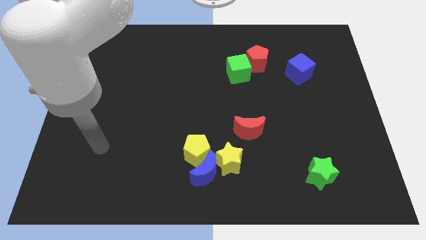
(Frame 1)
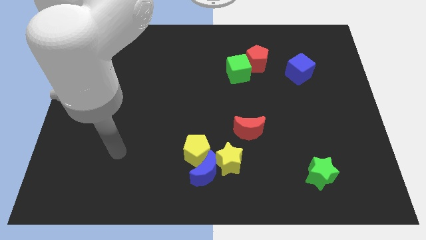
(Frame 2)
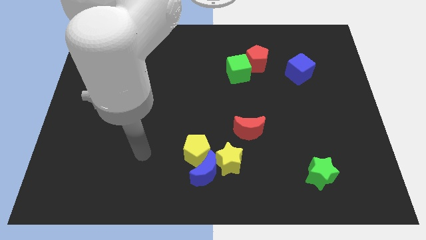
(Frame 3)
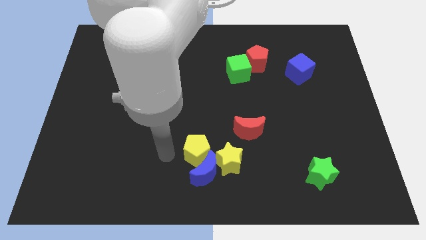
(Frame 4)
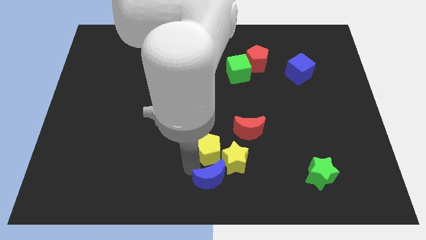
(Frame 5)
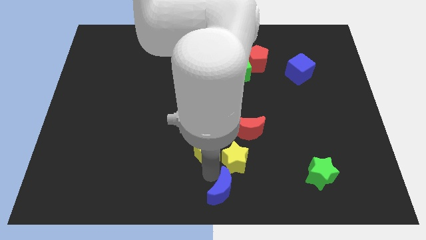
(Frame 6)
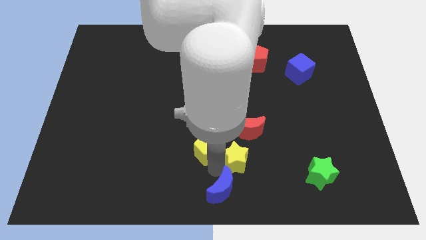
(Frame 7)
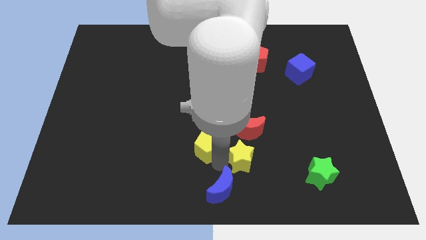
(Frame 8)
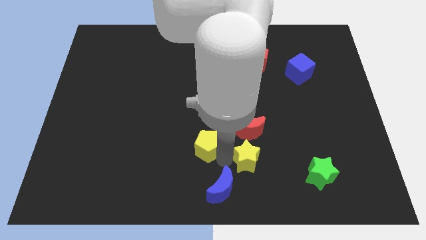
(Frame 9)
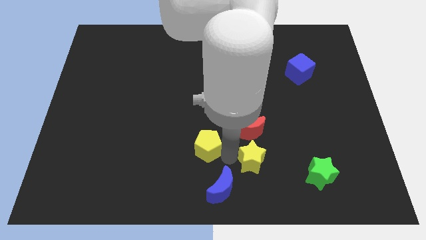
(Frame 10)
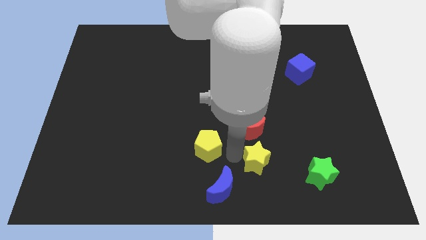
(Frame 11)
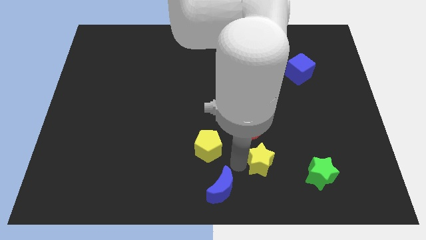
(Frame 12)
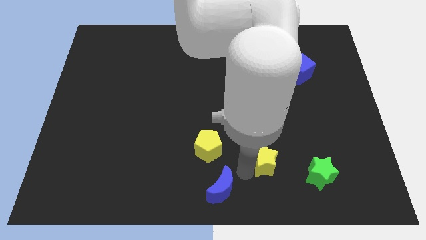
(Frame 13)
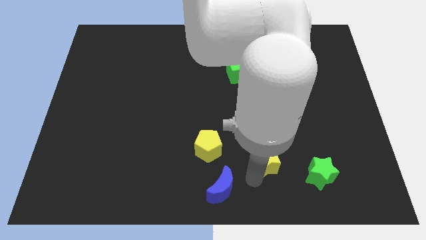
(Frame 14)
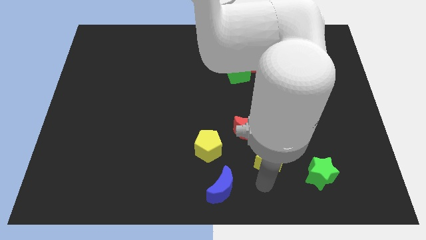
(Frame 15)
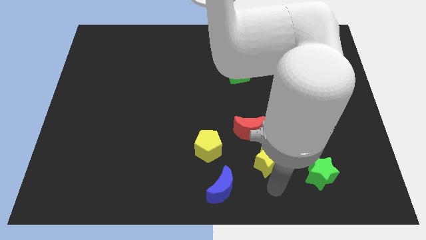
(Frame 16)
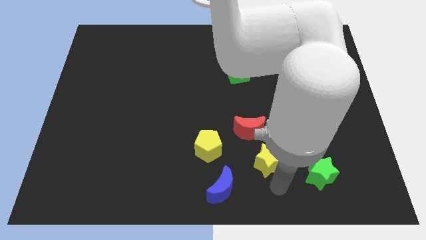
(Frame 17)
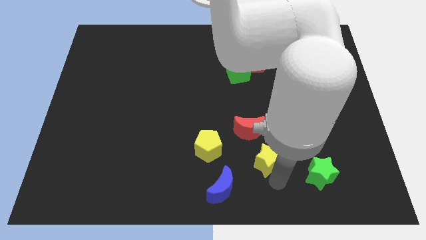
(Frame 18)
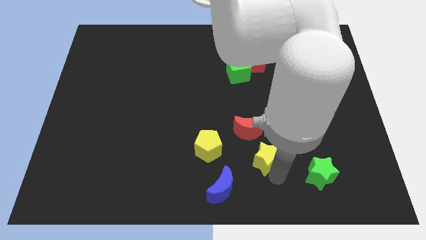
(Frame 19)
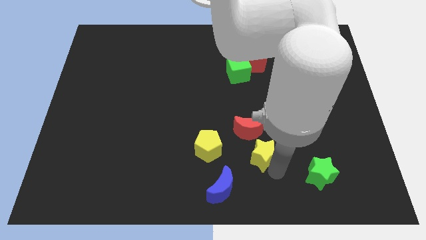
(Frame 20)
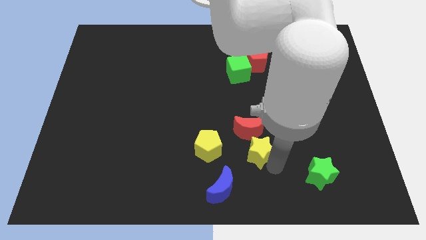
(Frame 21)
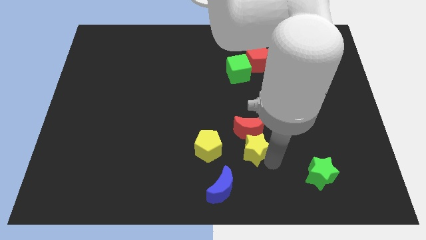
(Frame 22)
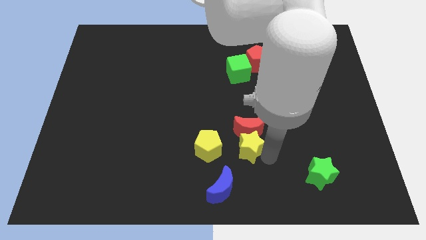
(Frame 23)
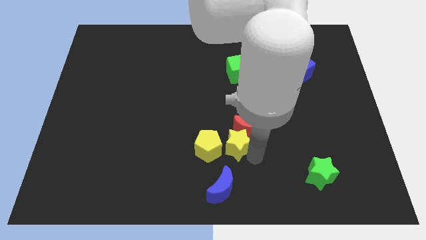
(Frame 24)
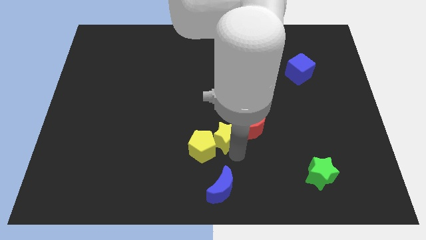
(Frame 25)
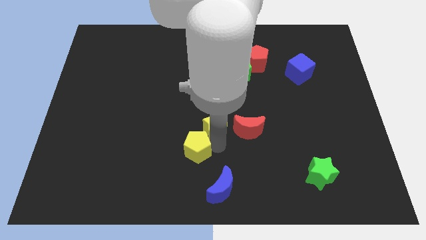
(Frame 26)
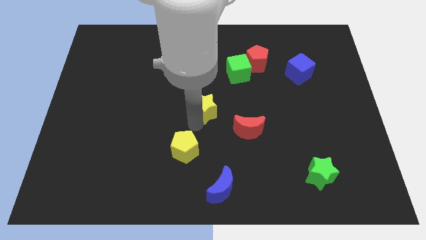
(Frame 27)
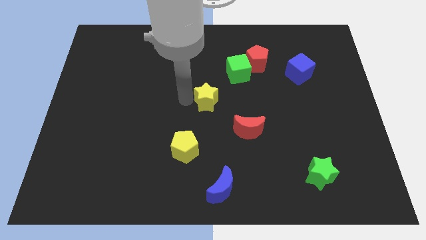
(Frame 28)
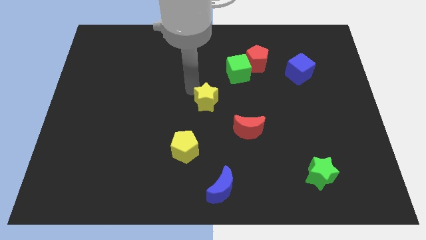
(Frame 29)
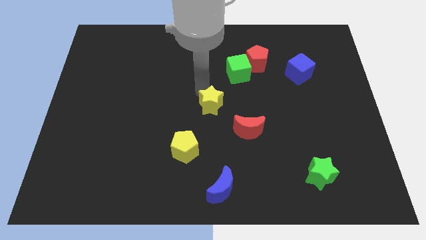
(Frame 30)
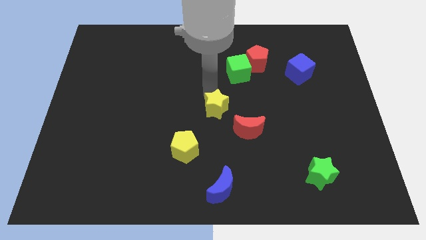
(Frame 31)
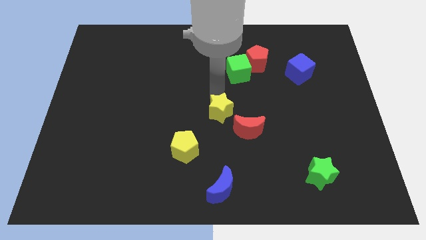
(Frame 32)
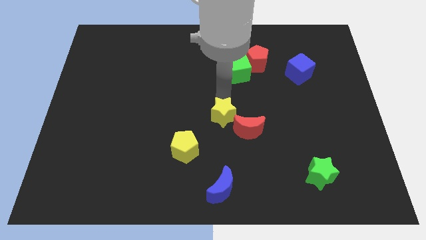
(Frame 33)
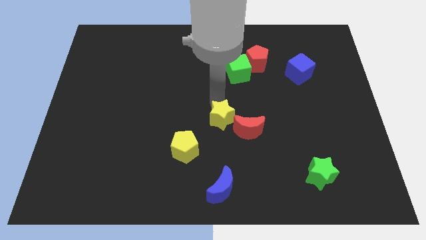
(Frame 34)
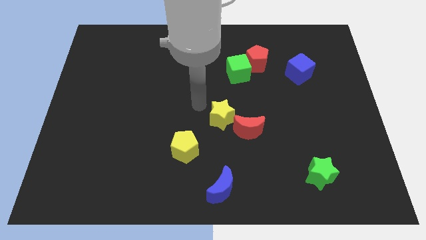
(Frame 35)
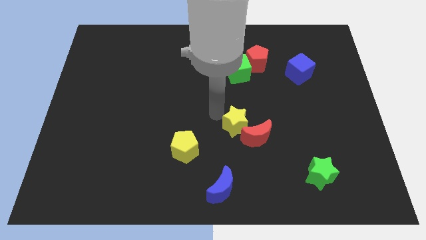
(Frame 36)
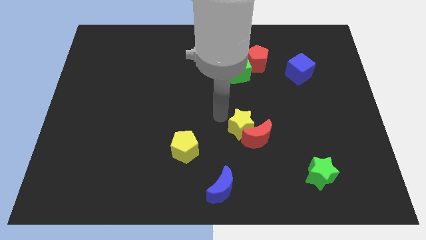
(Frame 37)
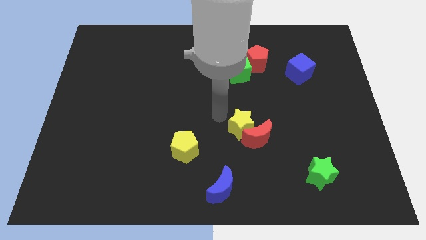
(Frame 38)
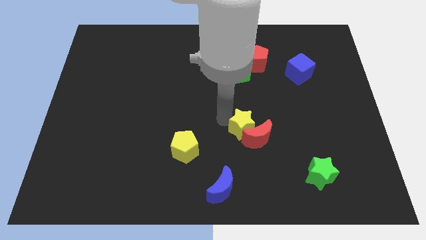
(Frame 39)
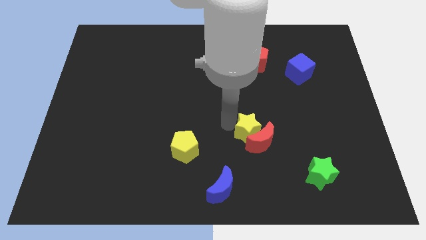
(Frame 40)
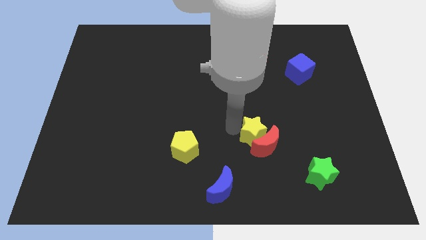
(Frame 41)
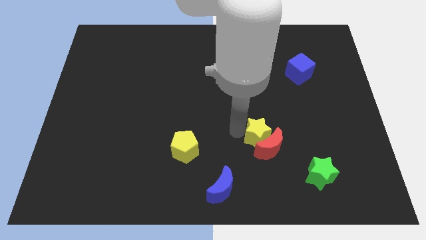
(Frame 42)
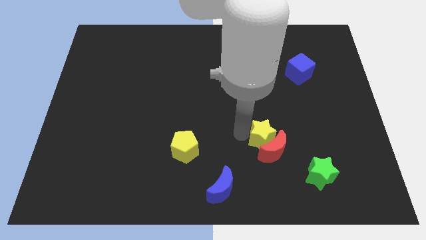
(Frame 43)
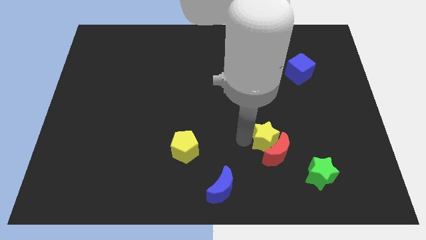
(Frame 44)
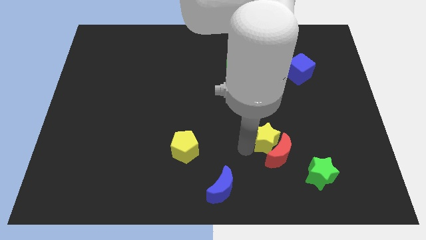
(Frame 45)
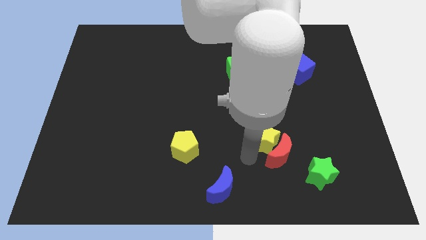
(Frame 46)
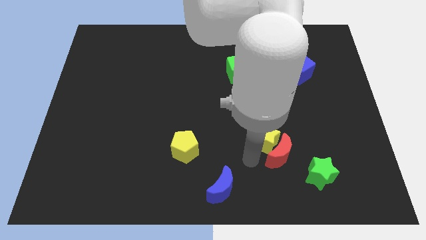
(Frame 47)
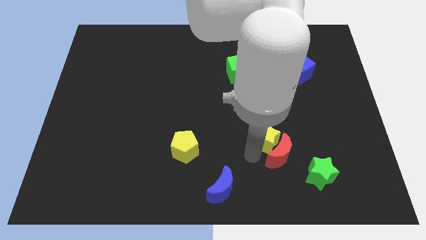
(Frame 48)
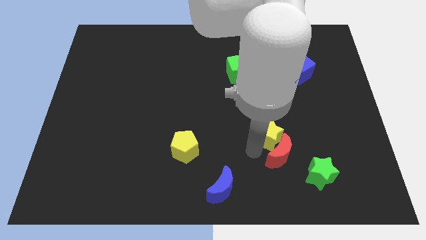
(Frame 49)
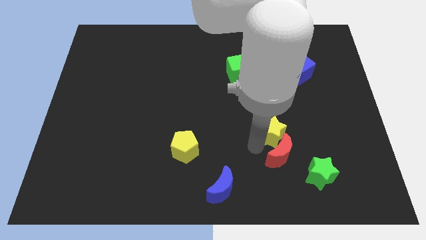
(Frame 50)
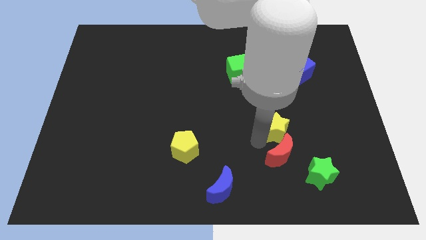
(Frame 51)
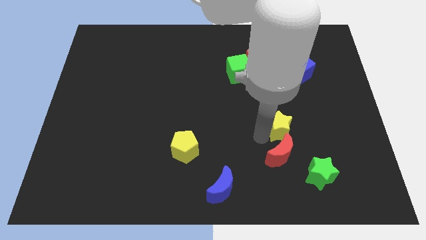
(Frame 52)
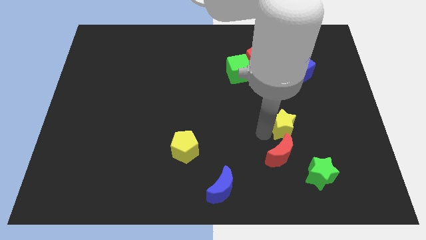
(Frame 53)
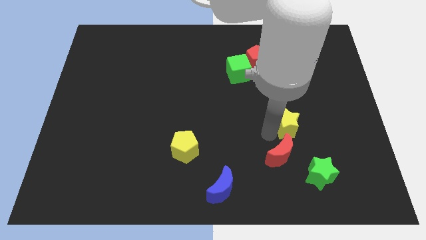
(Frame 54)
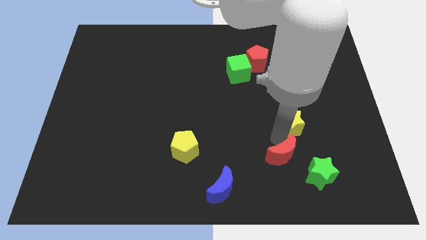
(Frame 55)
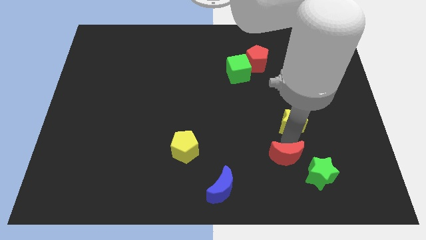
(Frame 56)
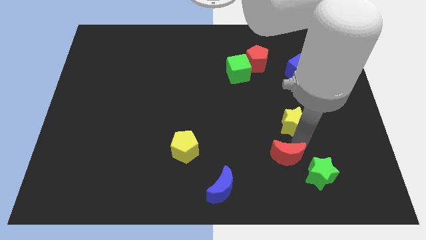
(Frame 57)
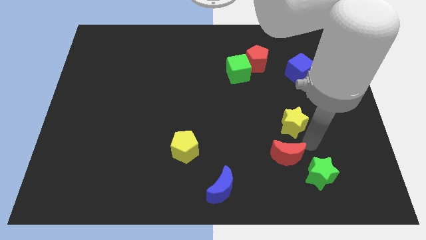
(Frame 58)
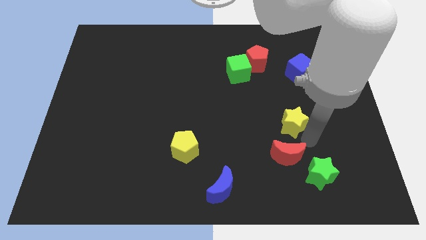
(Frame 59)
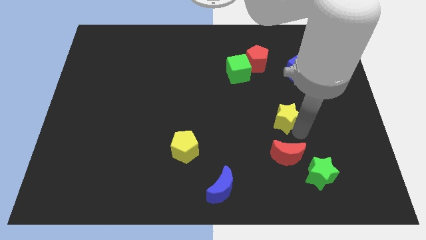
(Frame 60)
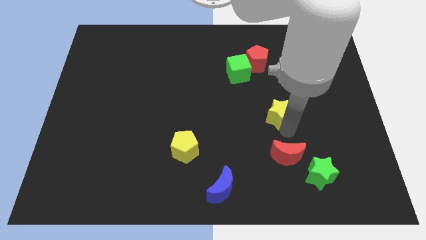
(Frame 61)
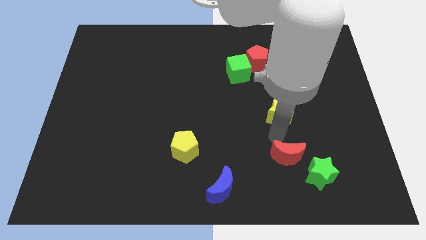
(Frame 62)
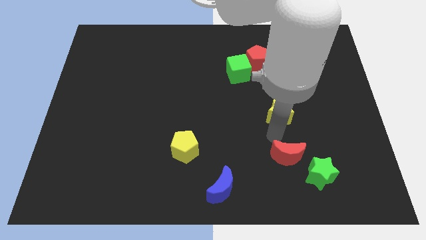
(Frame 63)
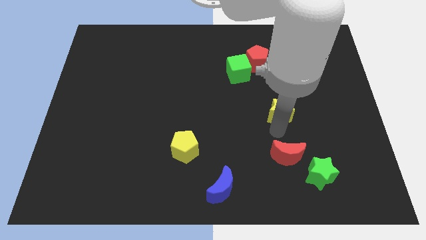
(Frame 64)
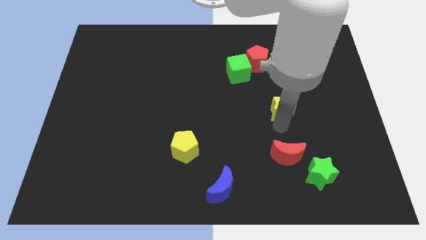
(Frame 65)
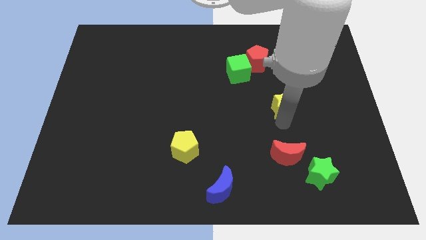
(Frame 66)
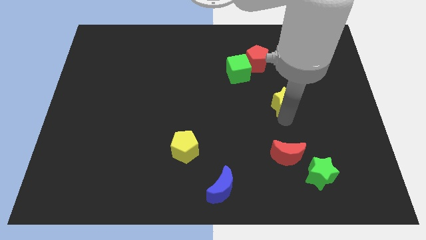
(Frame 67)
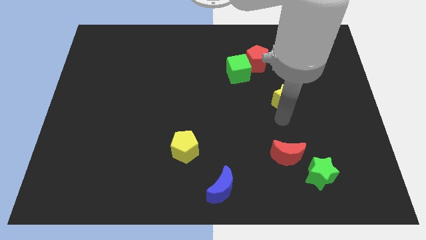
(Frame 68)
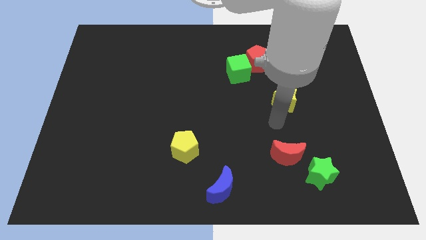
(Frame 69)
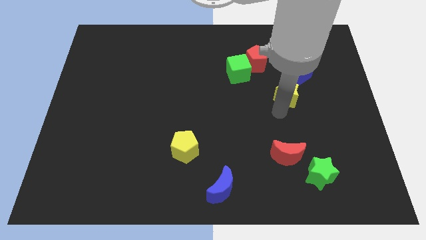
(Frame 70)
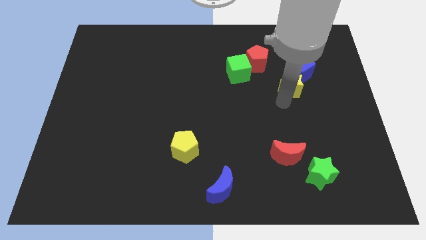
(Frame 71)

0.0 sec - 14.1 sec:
move the yellow star towards the blue cube
